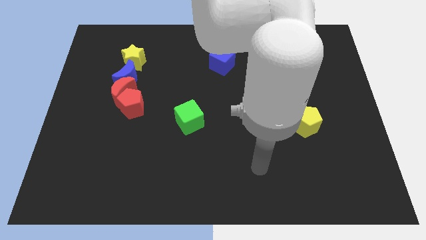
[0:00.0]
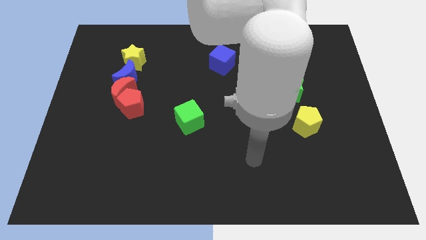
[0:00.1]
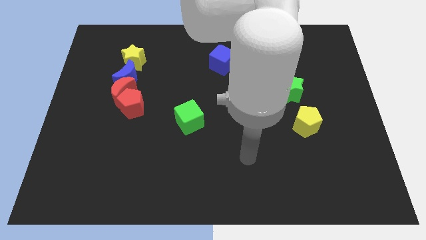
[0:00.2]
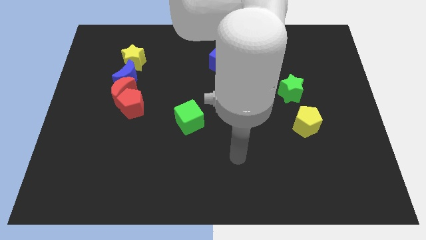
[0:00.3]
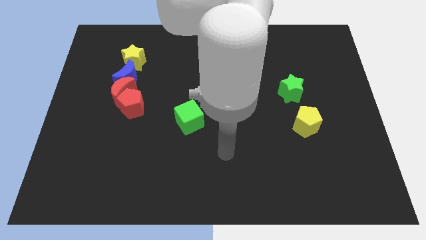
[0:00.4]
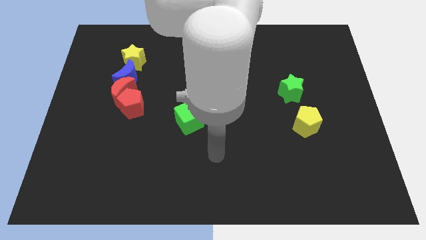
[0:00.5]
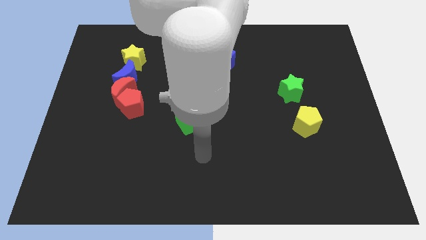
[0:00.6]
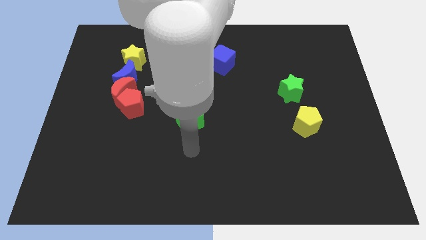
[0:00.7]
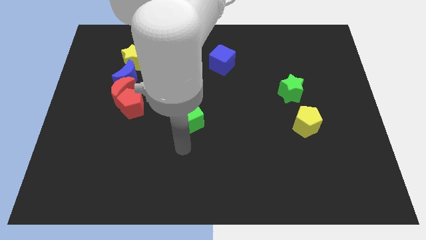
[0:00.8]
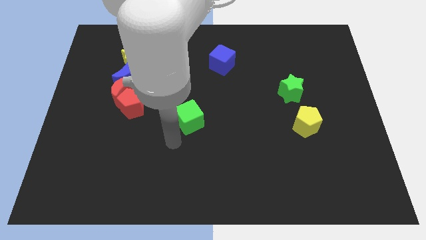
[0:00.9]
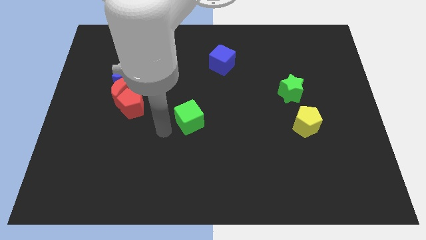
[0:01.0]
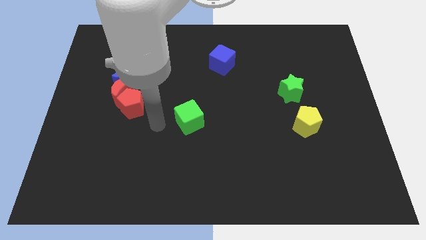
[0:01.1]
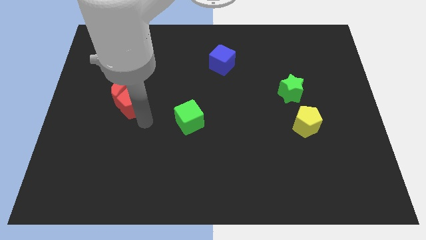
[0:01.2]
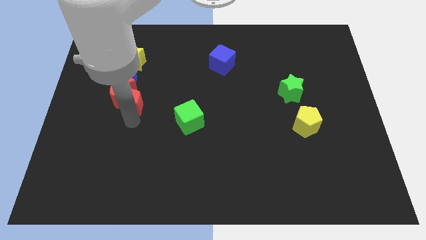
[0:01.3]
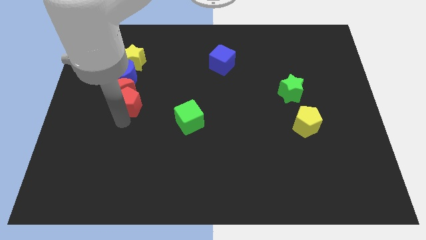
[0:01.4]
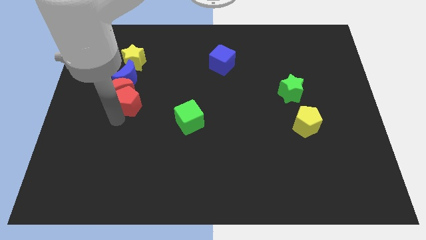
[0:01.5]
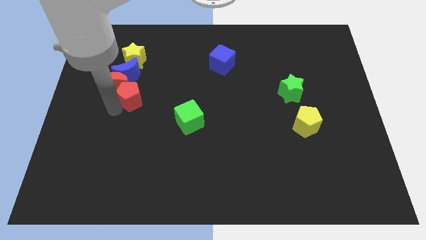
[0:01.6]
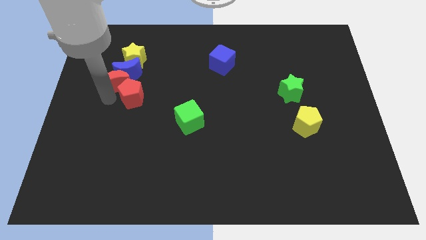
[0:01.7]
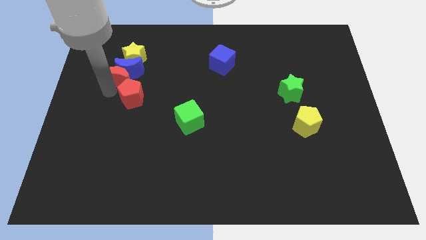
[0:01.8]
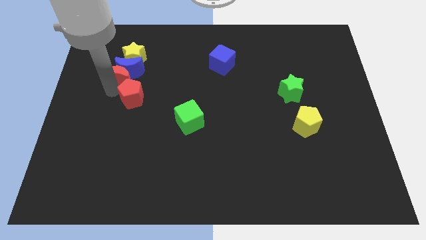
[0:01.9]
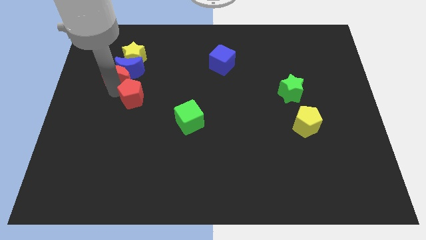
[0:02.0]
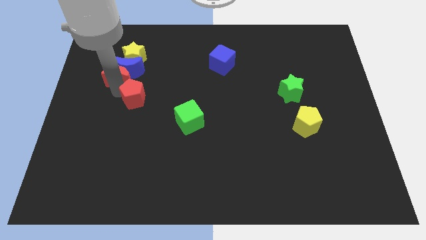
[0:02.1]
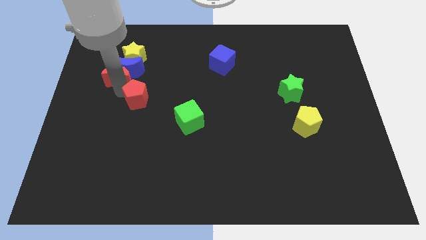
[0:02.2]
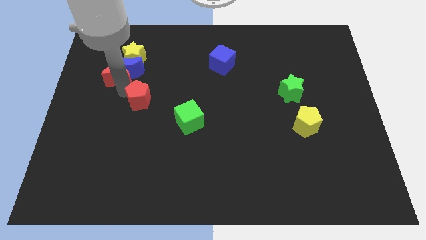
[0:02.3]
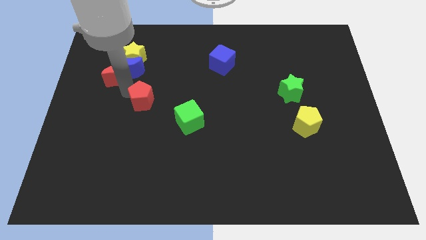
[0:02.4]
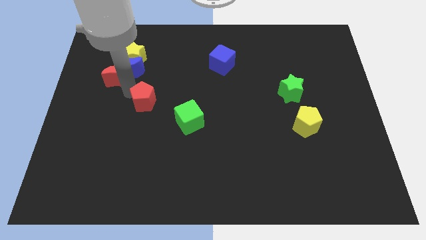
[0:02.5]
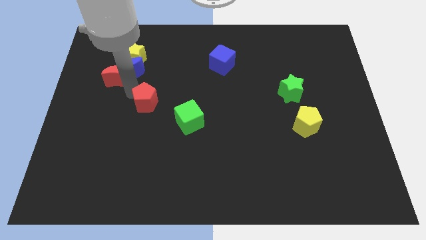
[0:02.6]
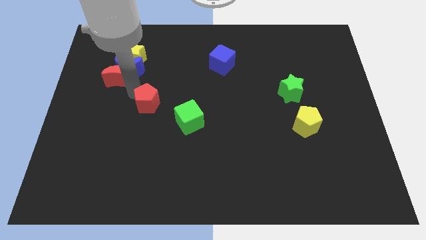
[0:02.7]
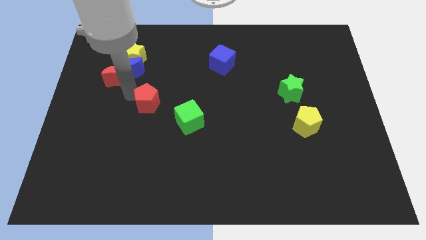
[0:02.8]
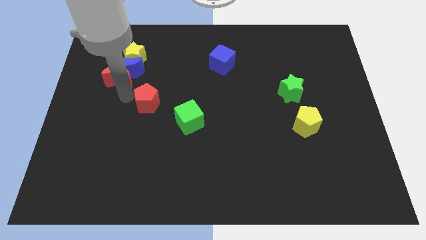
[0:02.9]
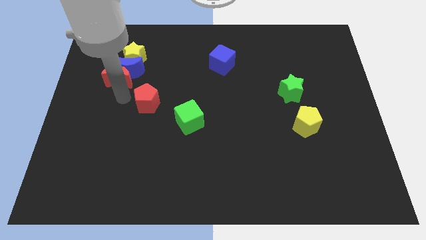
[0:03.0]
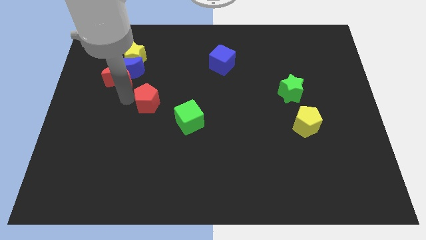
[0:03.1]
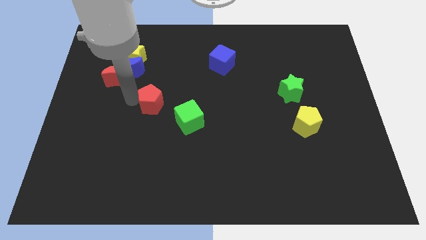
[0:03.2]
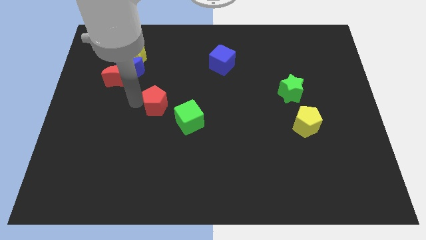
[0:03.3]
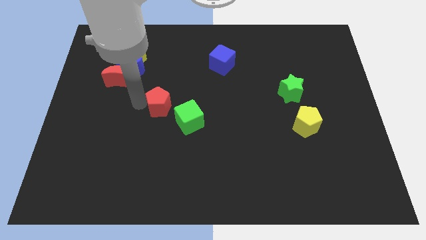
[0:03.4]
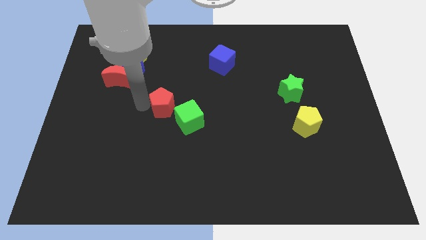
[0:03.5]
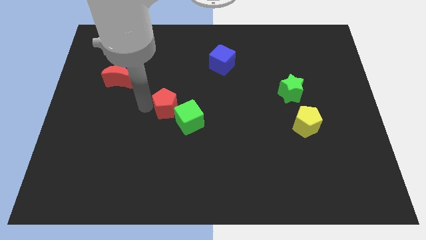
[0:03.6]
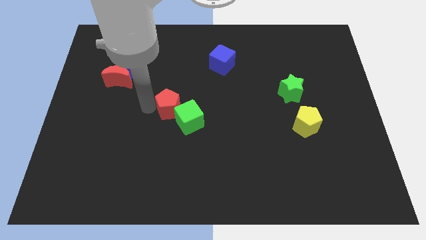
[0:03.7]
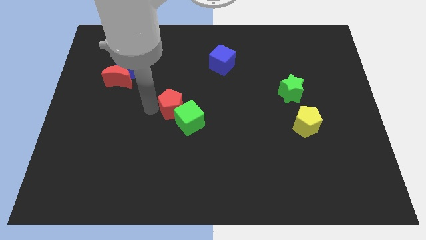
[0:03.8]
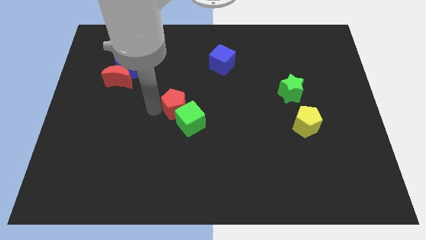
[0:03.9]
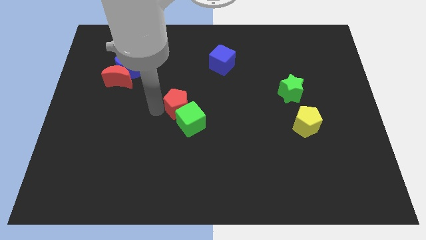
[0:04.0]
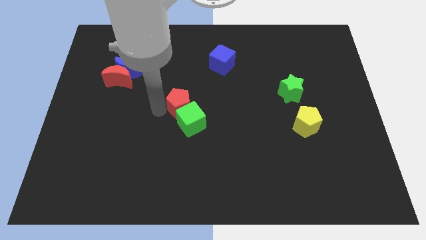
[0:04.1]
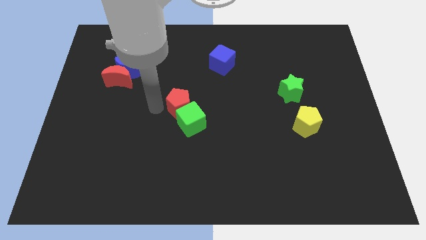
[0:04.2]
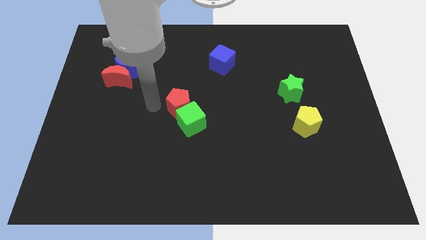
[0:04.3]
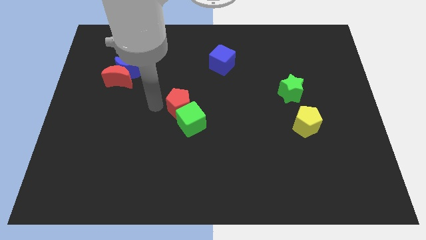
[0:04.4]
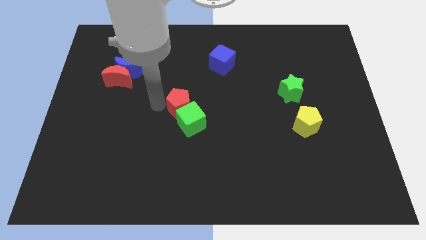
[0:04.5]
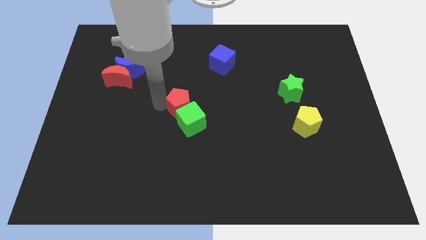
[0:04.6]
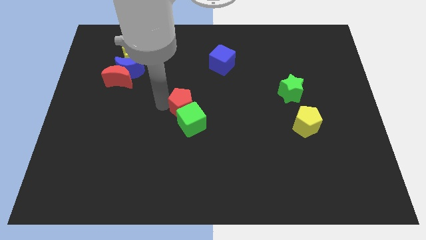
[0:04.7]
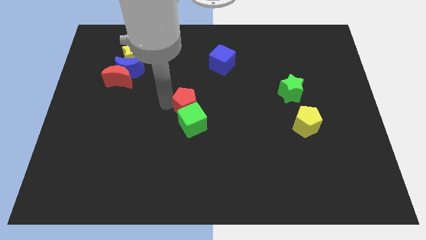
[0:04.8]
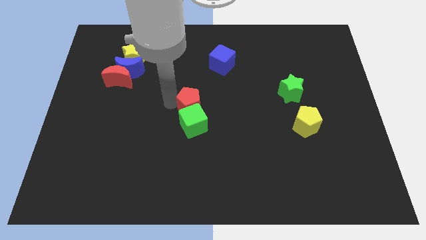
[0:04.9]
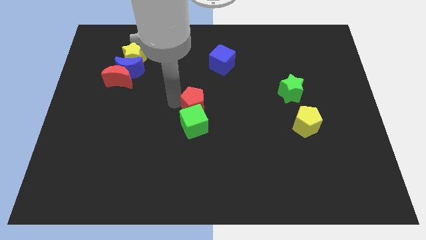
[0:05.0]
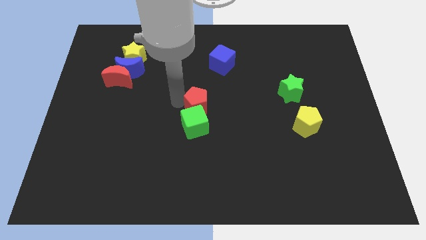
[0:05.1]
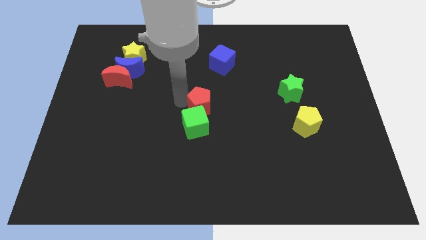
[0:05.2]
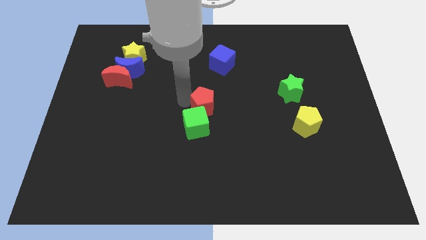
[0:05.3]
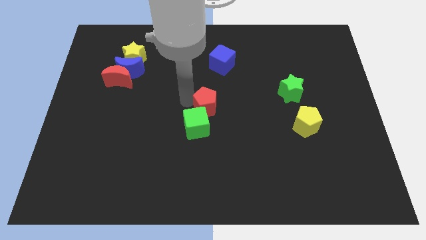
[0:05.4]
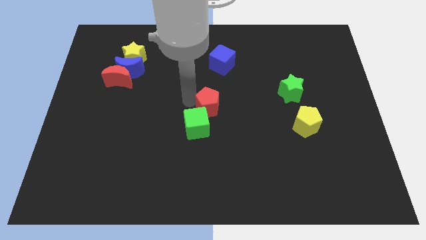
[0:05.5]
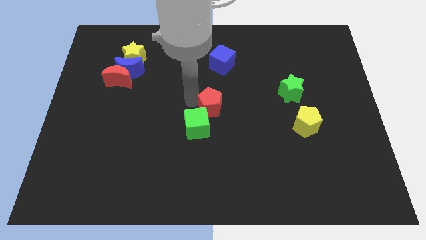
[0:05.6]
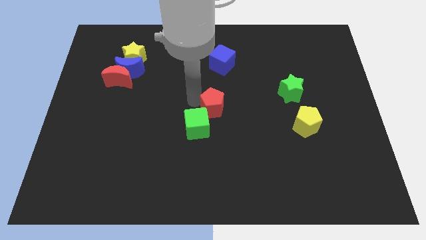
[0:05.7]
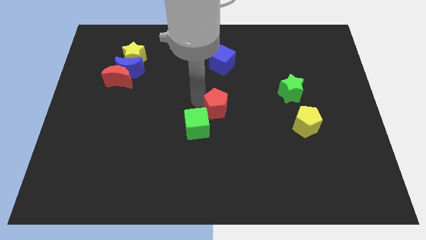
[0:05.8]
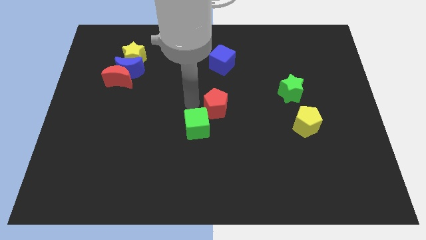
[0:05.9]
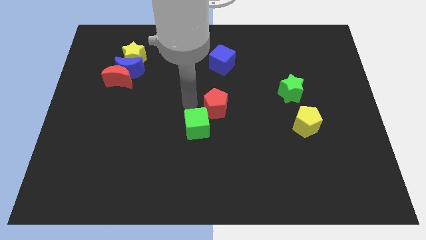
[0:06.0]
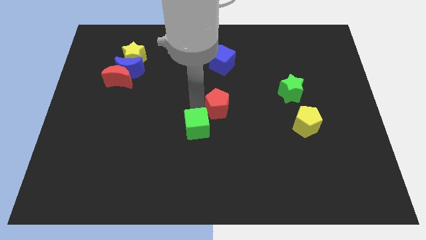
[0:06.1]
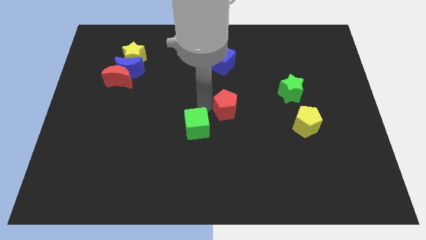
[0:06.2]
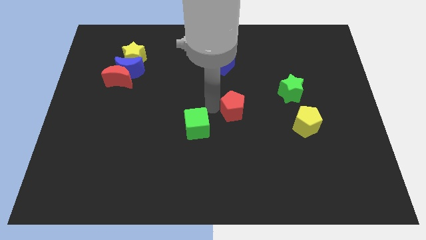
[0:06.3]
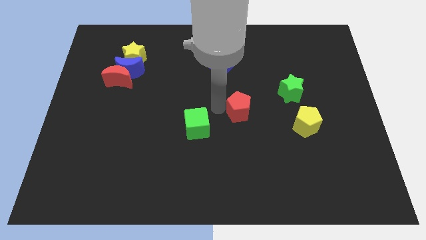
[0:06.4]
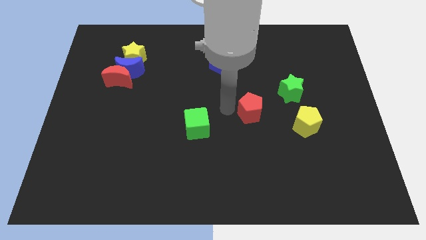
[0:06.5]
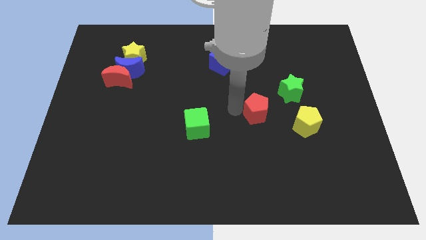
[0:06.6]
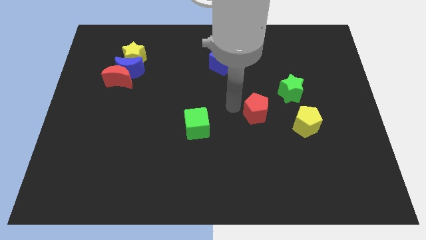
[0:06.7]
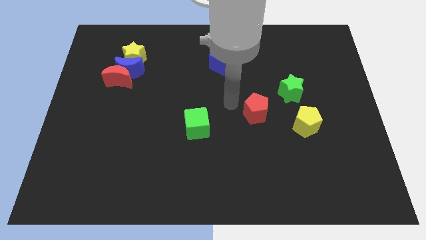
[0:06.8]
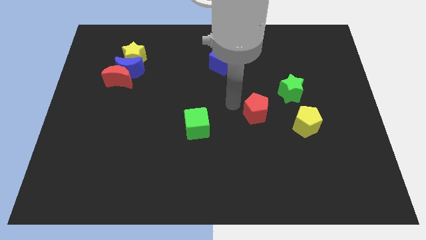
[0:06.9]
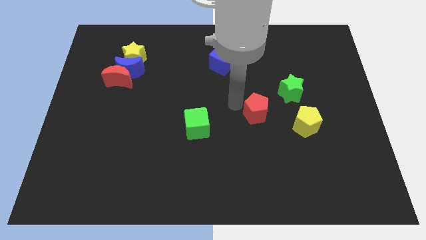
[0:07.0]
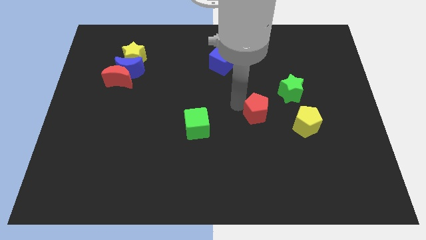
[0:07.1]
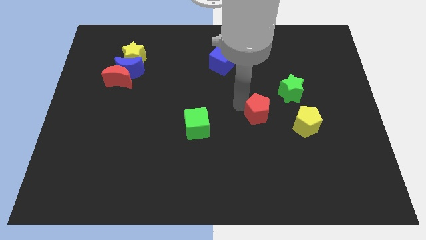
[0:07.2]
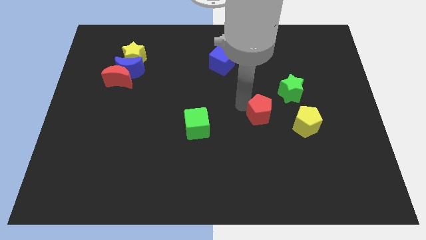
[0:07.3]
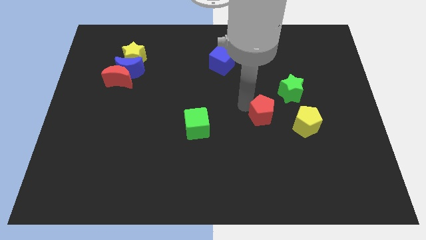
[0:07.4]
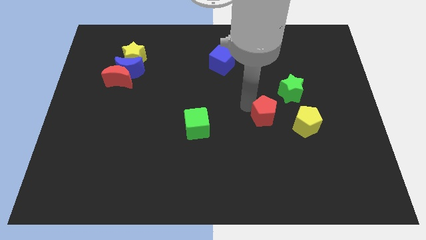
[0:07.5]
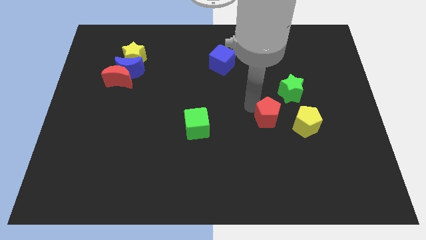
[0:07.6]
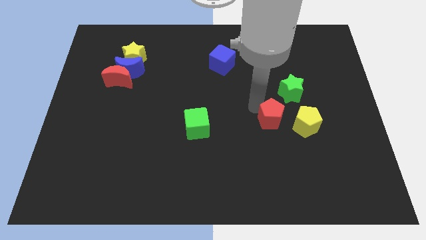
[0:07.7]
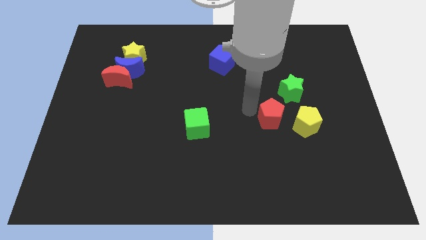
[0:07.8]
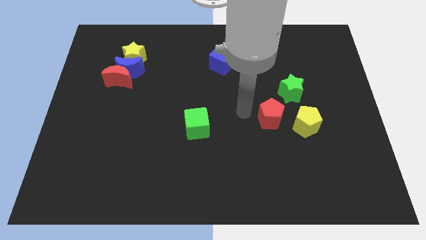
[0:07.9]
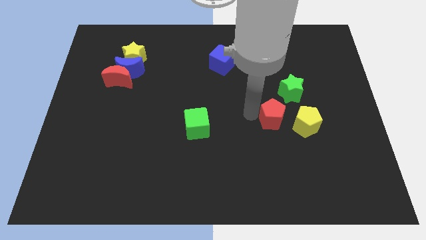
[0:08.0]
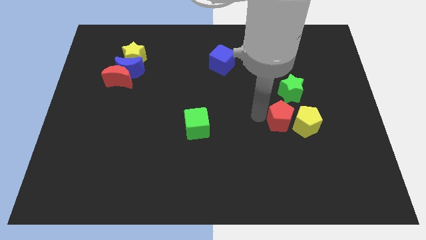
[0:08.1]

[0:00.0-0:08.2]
put the red pentagon to the yellow pentagon
